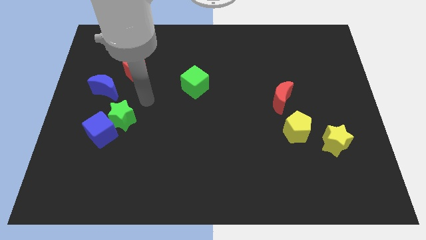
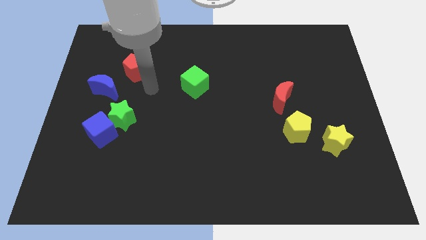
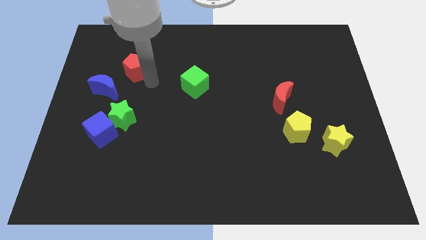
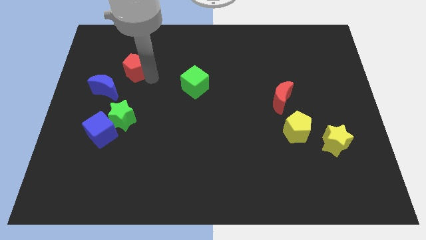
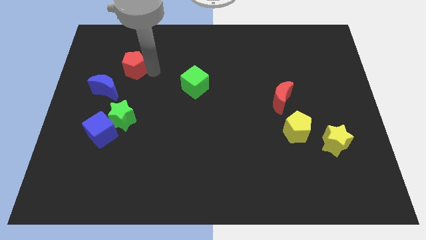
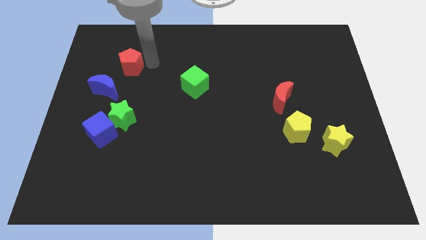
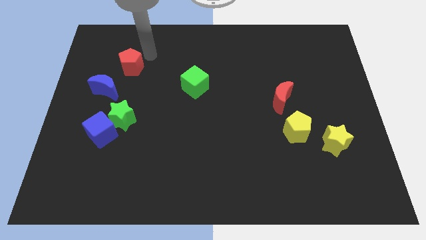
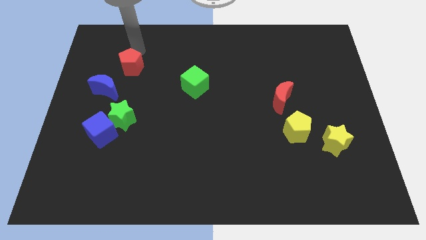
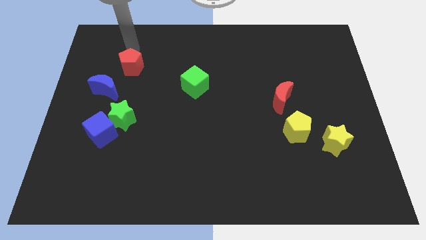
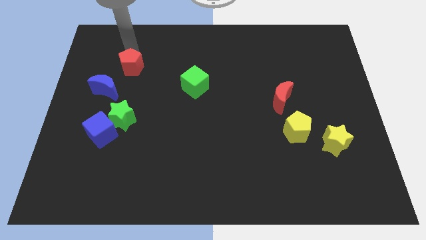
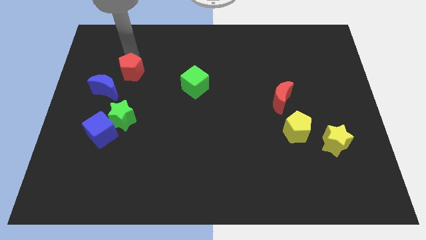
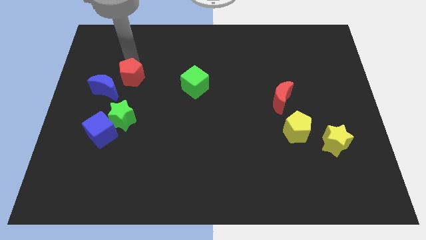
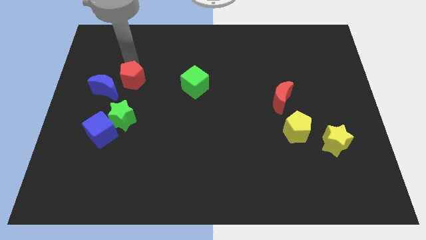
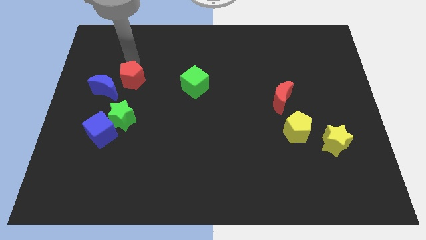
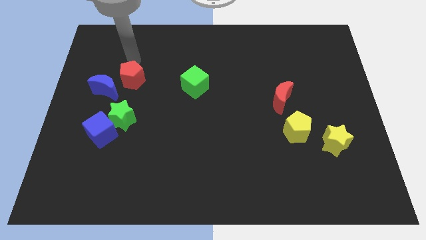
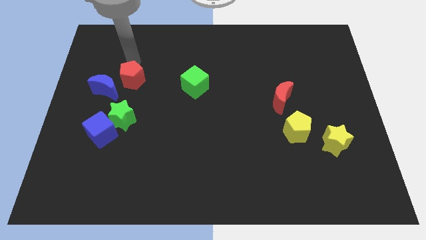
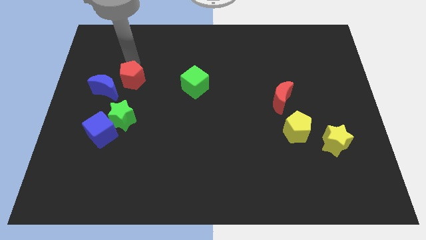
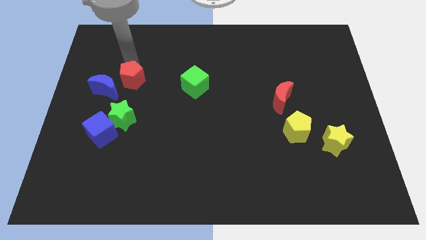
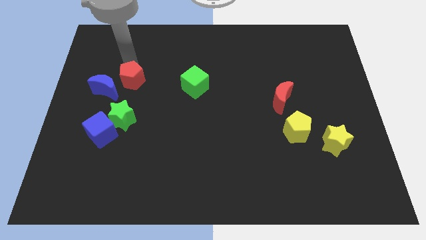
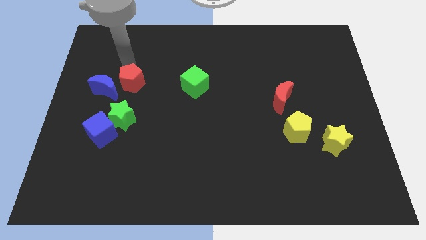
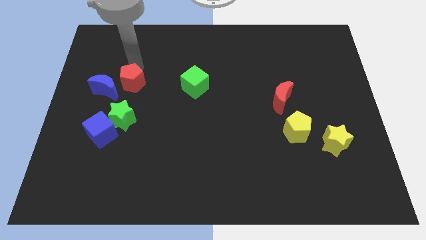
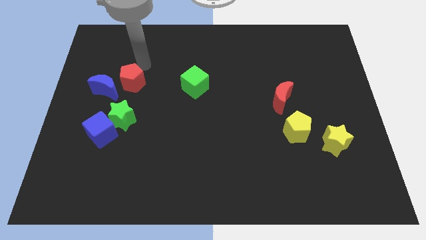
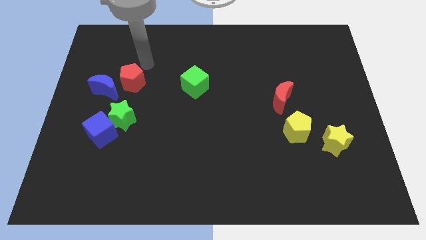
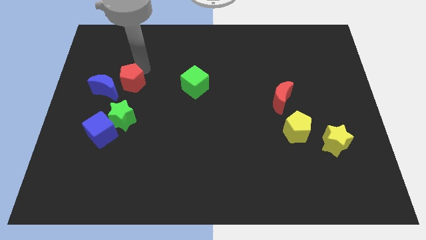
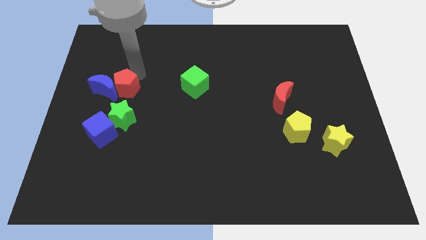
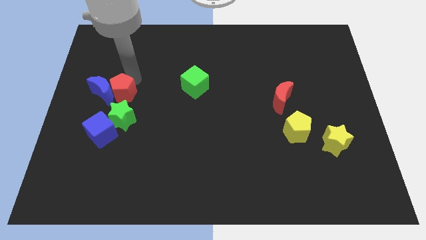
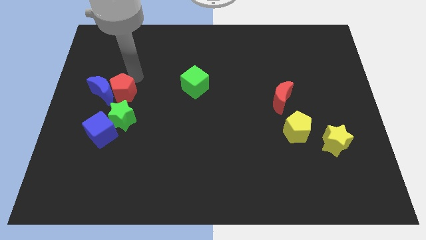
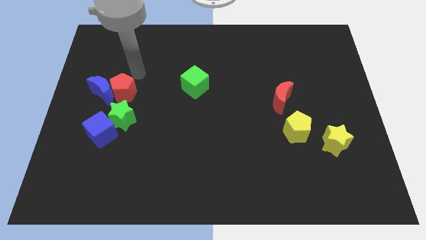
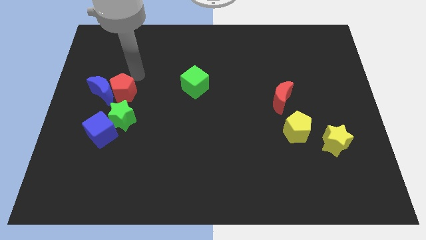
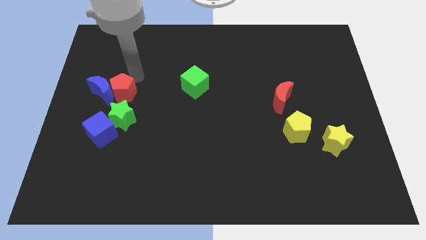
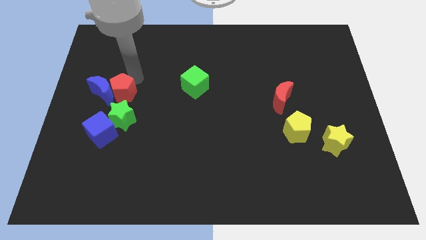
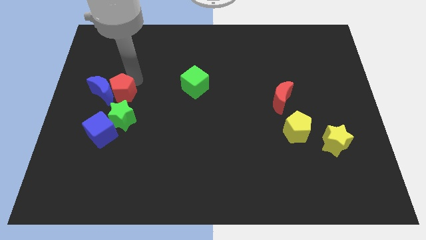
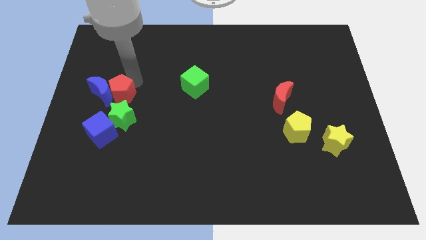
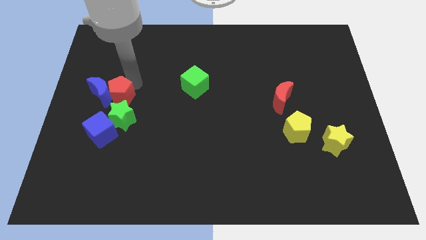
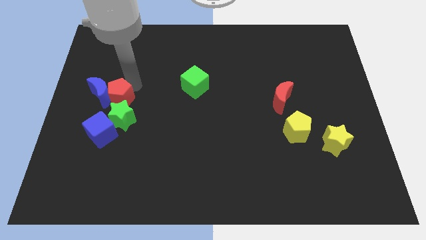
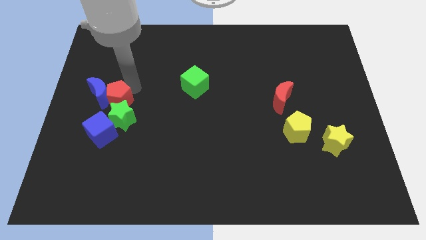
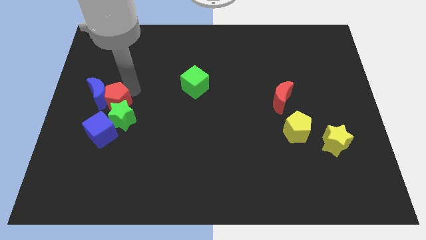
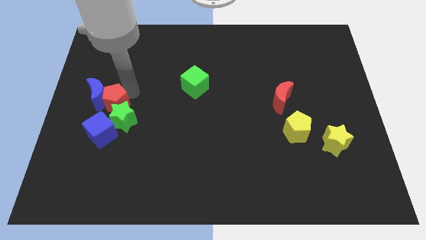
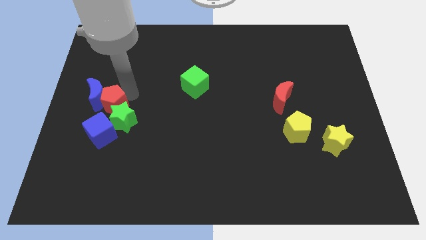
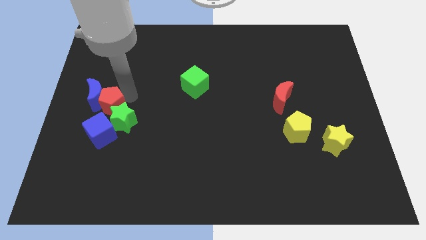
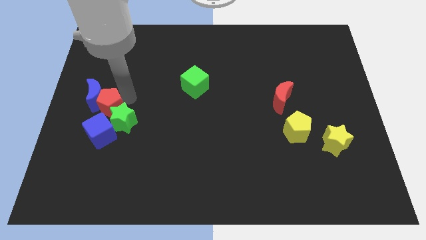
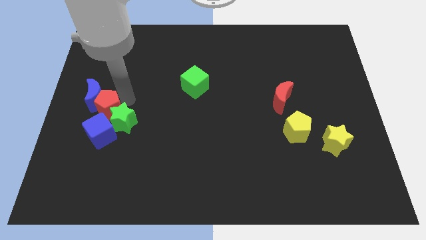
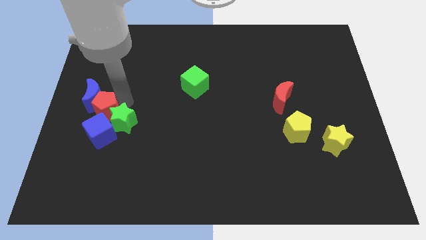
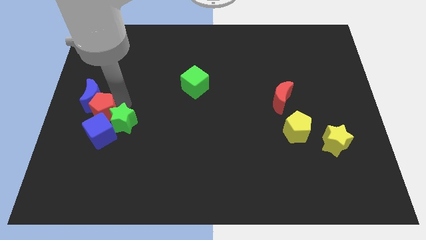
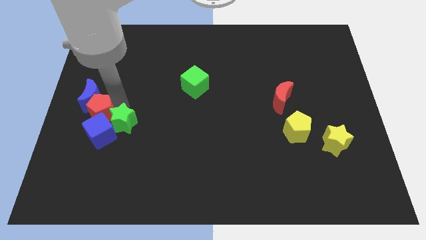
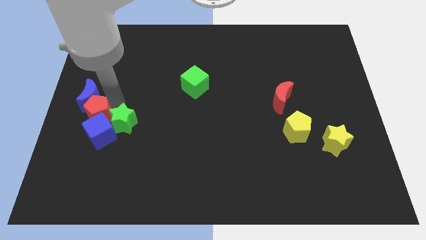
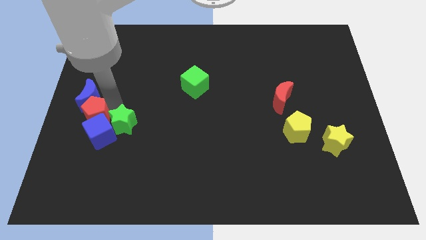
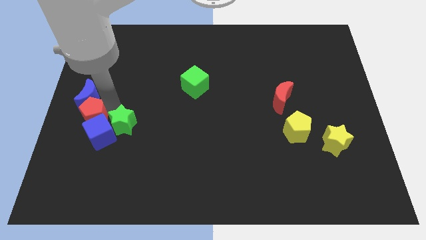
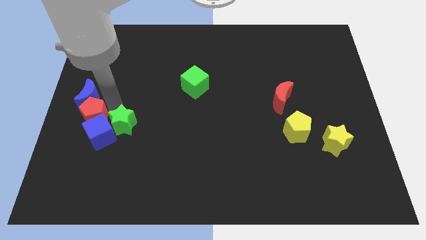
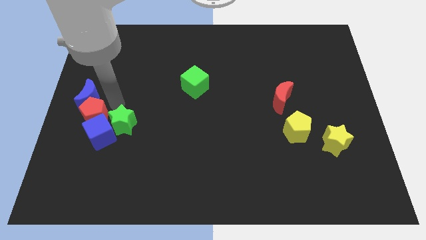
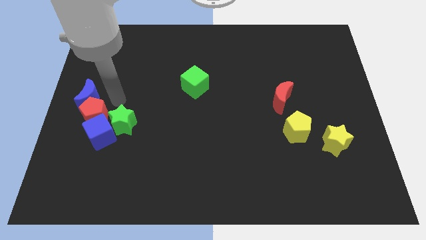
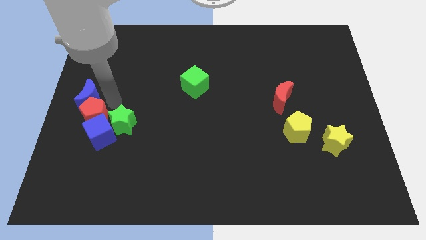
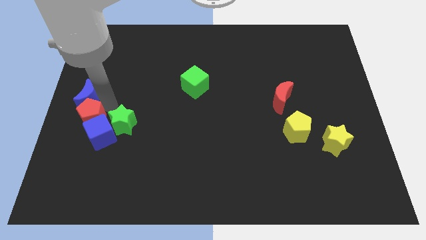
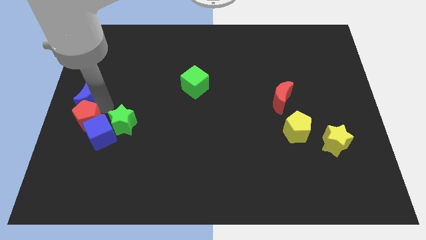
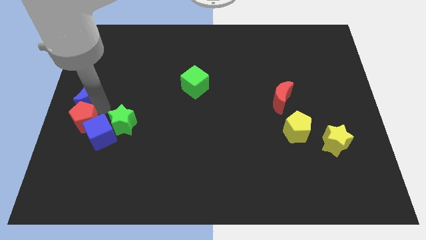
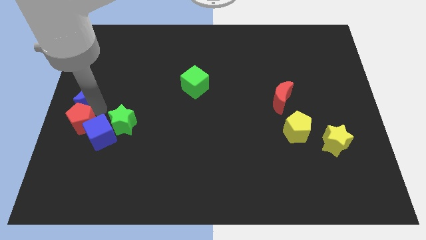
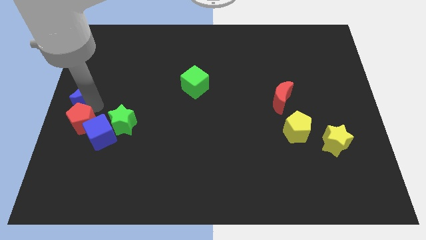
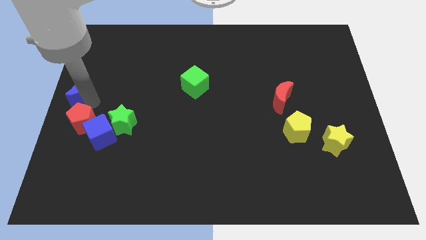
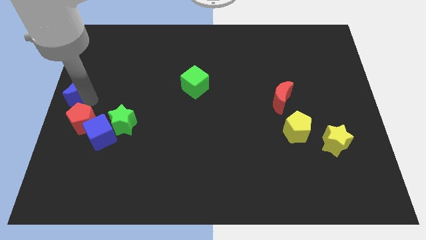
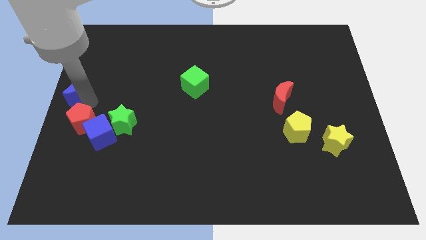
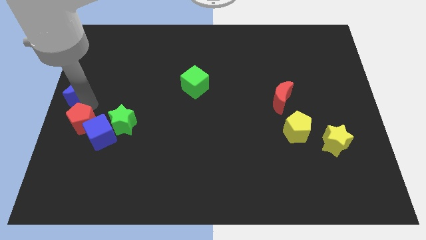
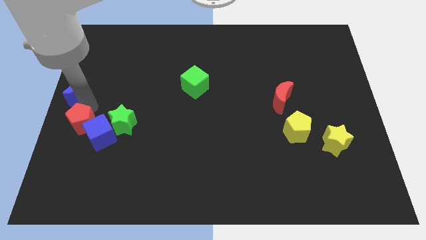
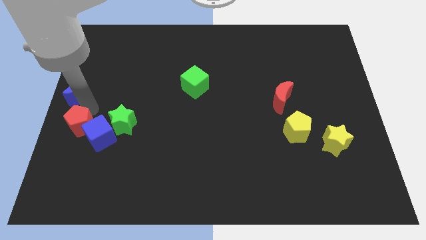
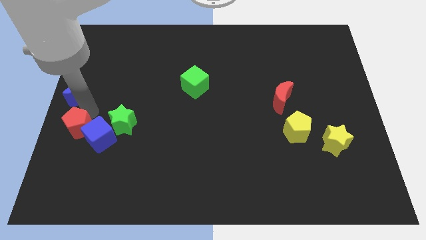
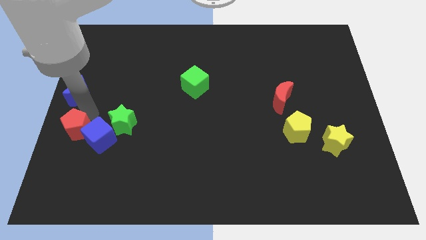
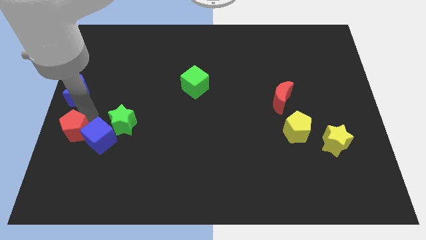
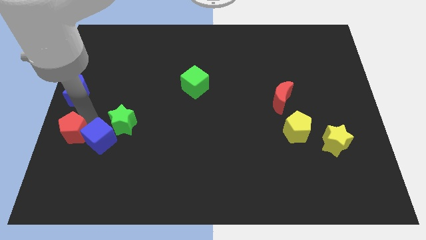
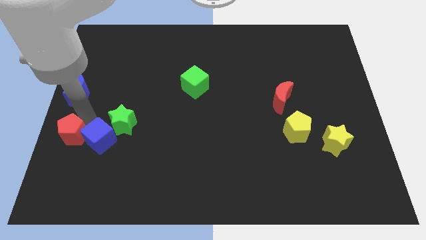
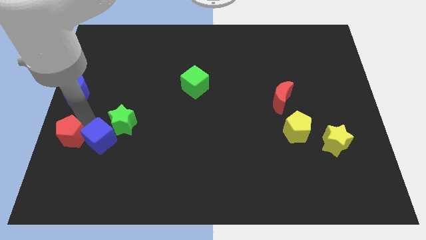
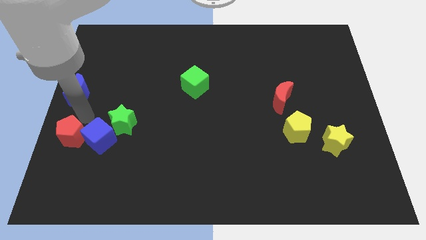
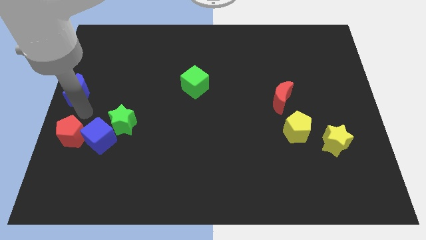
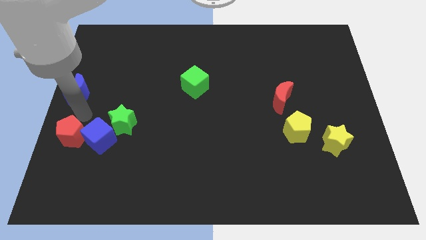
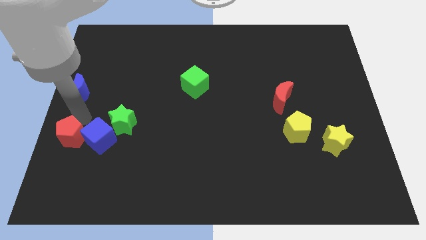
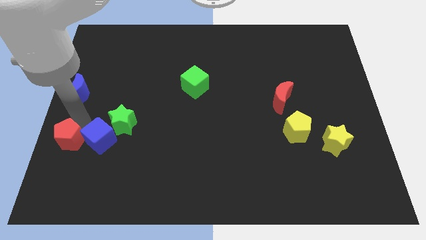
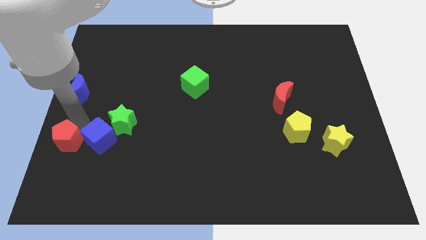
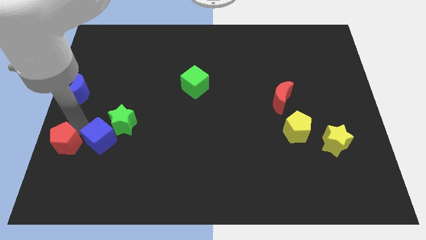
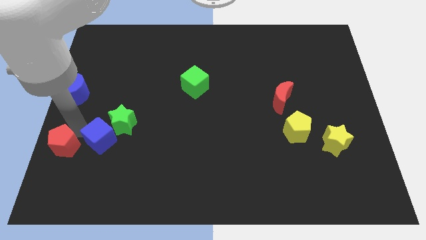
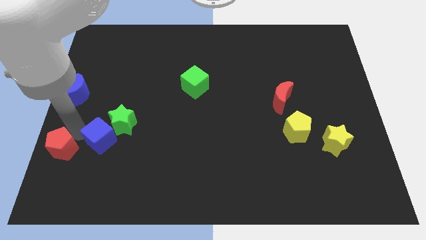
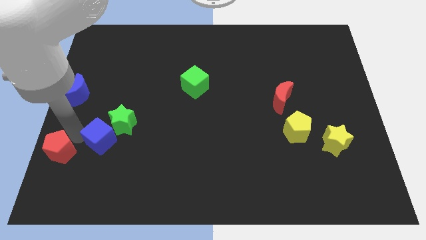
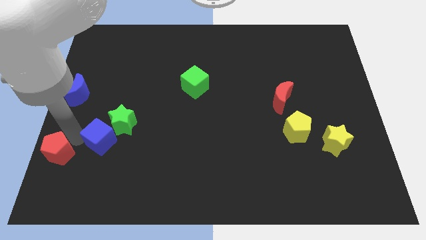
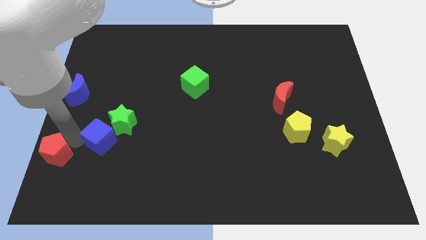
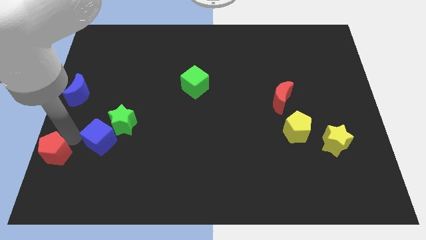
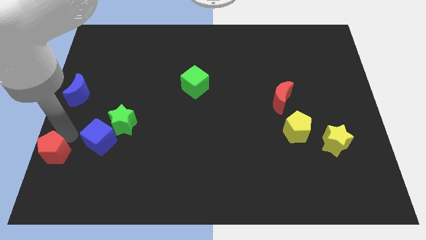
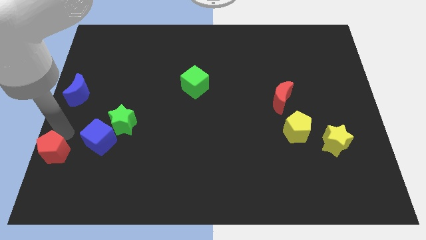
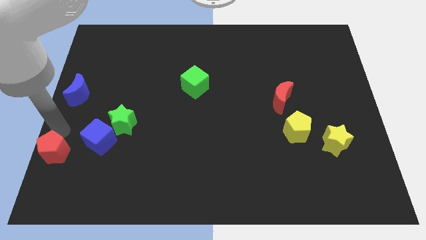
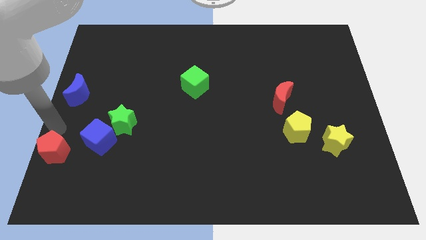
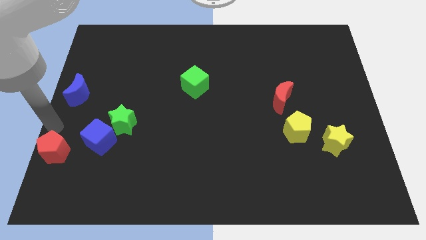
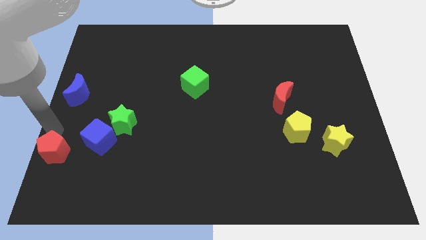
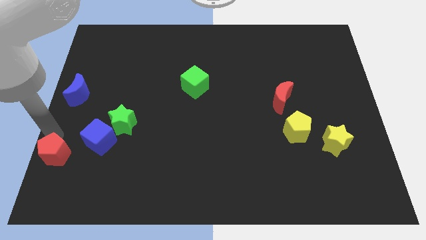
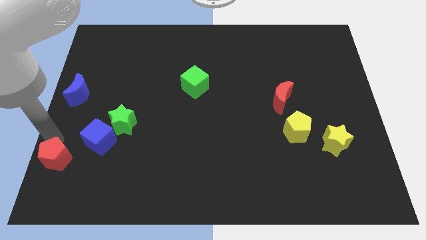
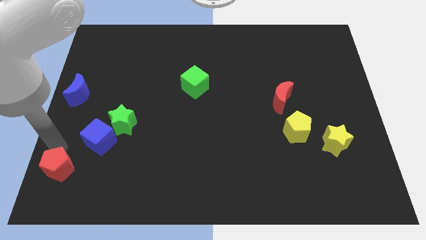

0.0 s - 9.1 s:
slide the red pentagon to the lower left corner
